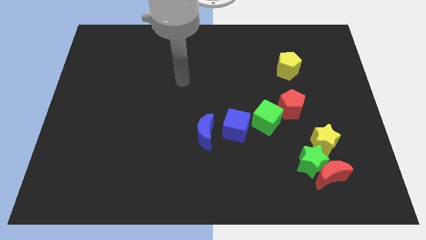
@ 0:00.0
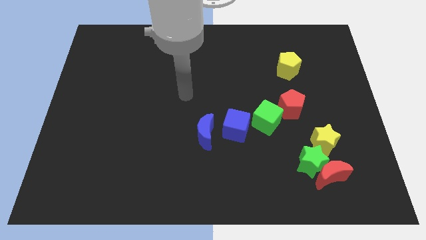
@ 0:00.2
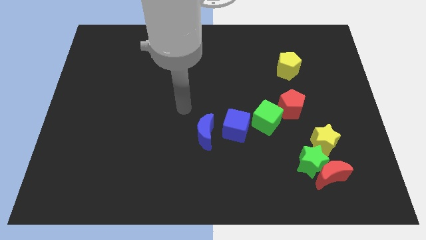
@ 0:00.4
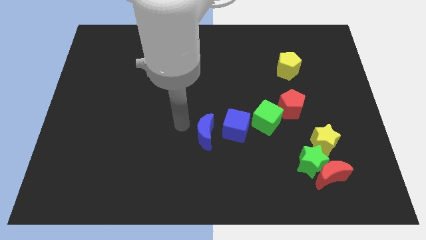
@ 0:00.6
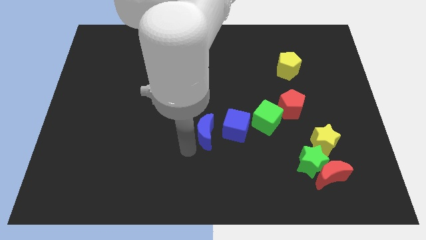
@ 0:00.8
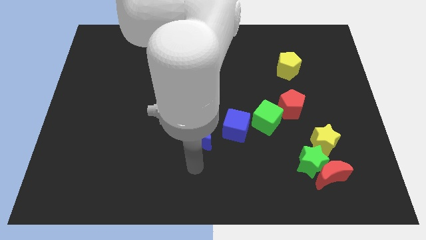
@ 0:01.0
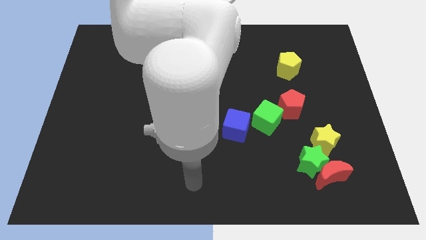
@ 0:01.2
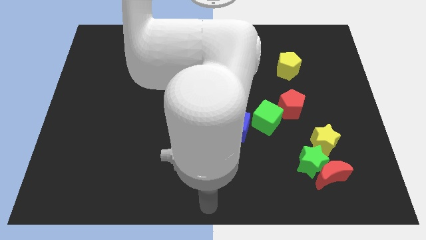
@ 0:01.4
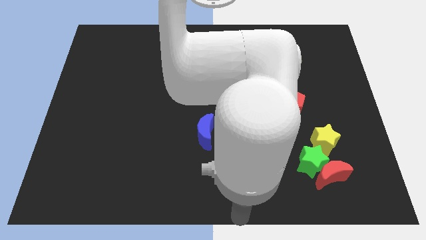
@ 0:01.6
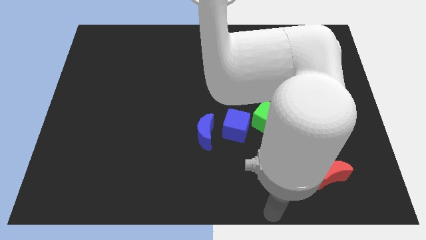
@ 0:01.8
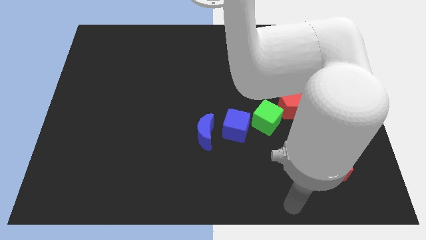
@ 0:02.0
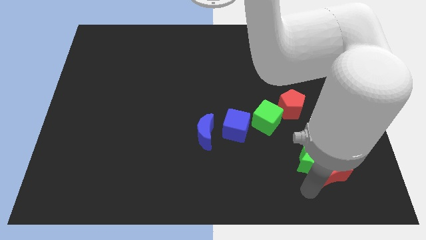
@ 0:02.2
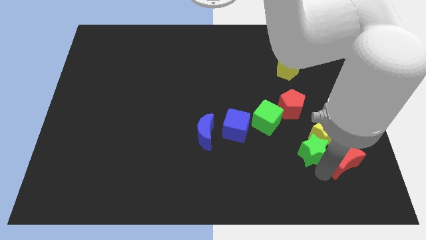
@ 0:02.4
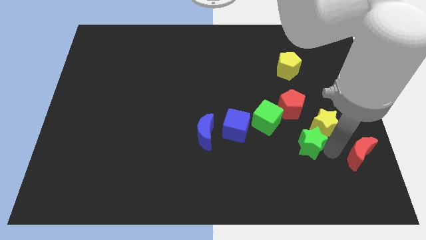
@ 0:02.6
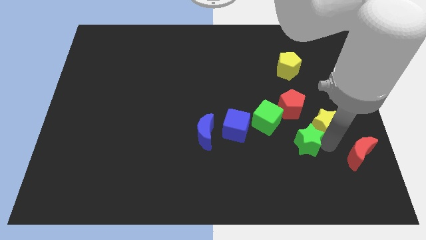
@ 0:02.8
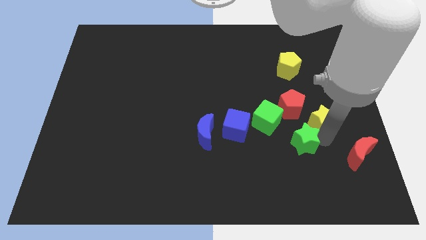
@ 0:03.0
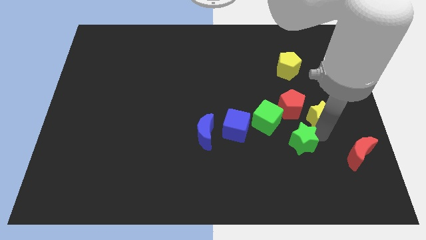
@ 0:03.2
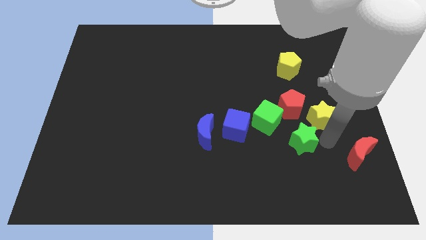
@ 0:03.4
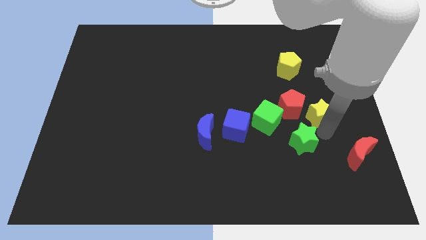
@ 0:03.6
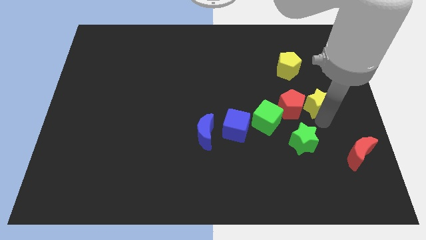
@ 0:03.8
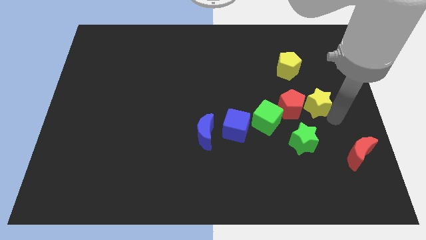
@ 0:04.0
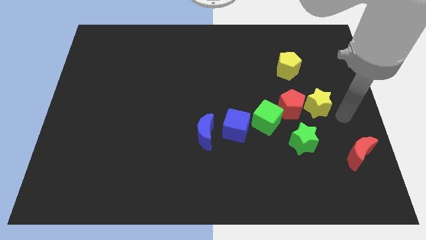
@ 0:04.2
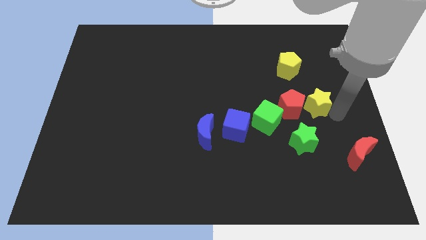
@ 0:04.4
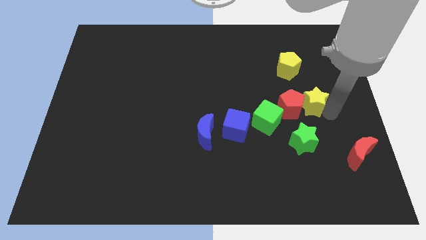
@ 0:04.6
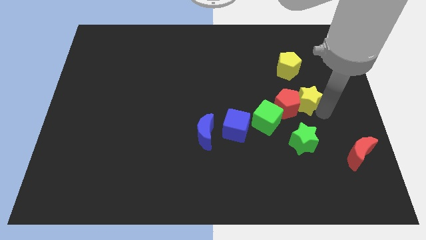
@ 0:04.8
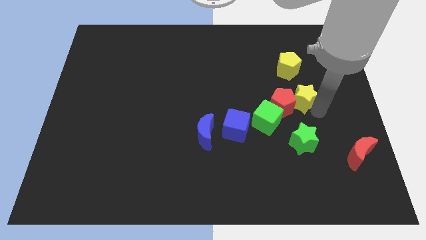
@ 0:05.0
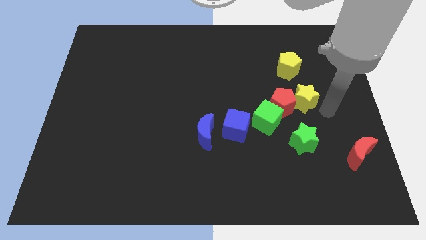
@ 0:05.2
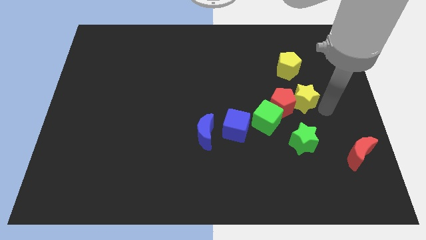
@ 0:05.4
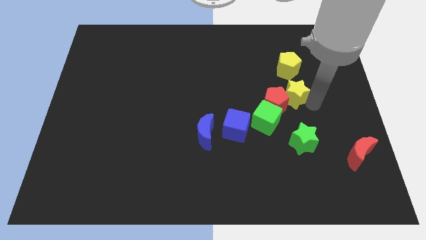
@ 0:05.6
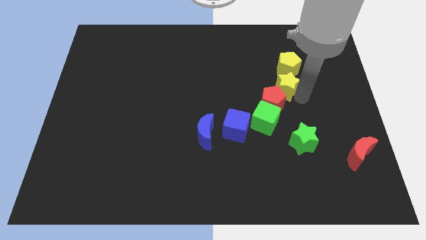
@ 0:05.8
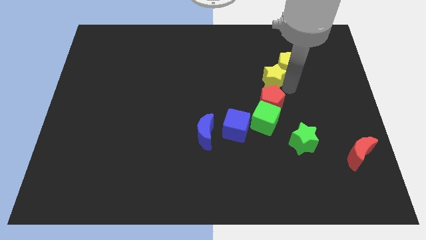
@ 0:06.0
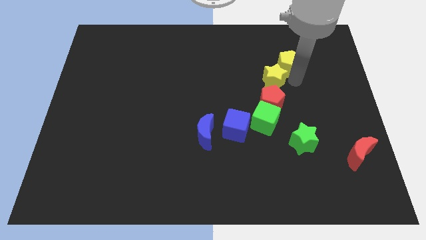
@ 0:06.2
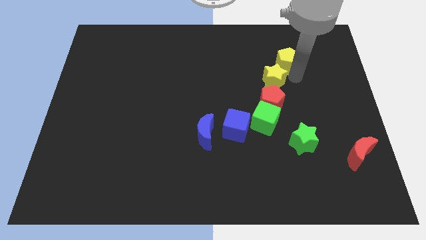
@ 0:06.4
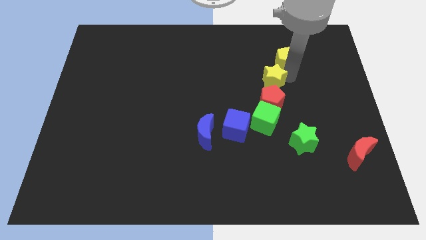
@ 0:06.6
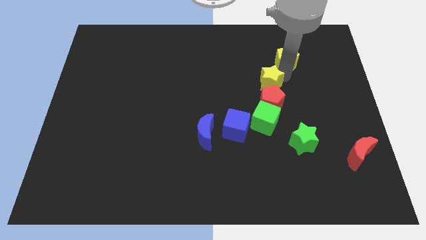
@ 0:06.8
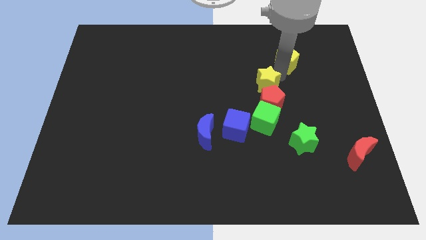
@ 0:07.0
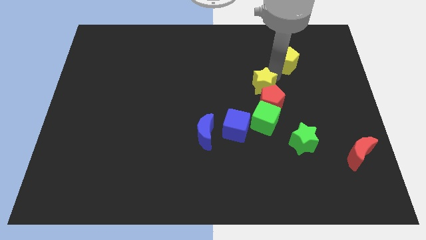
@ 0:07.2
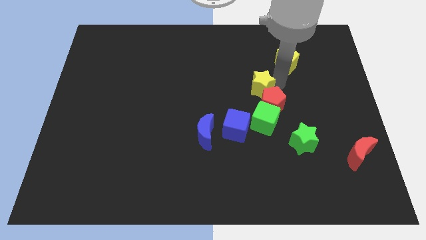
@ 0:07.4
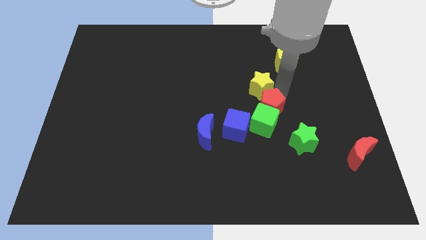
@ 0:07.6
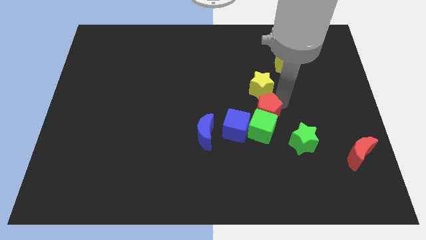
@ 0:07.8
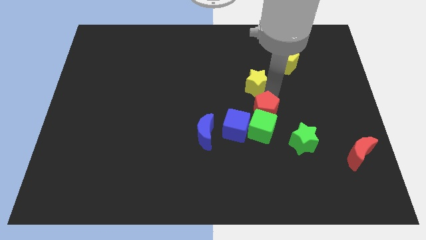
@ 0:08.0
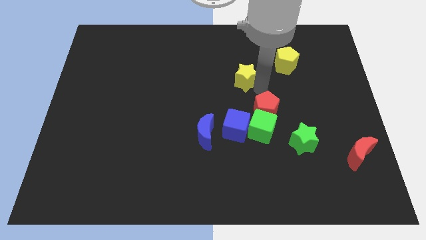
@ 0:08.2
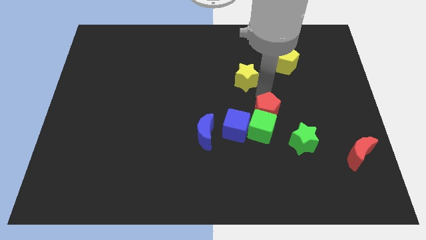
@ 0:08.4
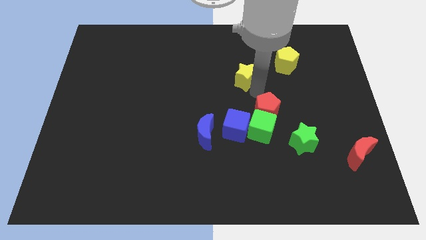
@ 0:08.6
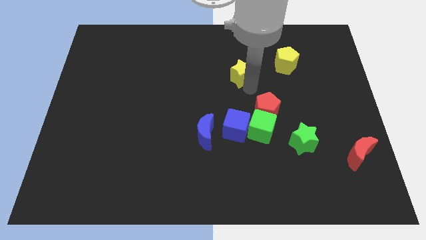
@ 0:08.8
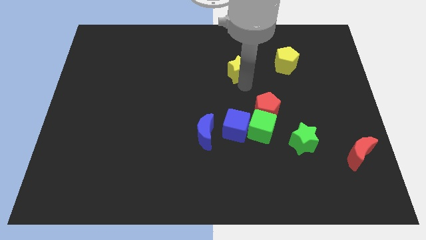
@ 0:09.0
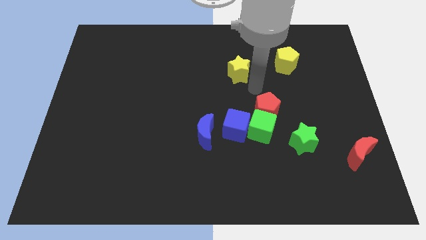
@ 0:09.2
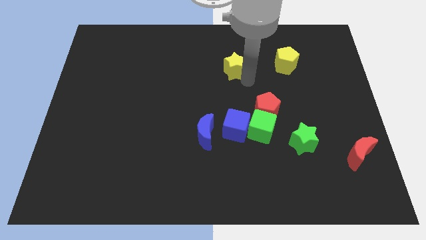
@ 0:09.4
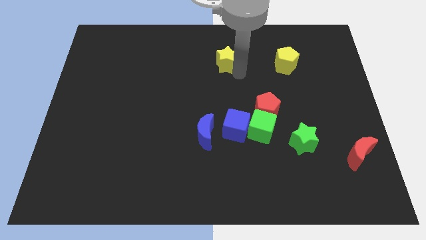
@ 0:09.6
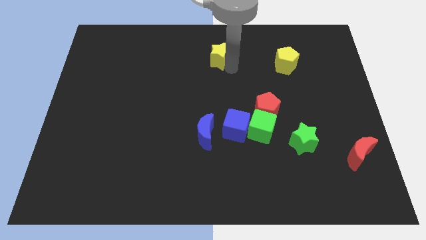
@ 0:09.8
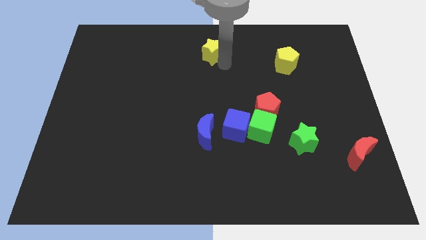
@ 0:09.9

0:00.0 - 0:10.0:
move the yellow star to the top

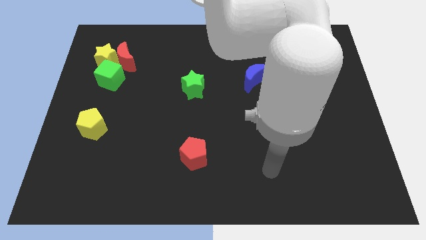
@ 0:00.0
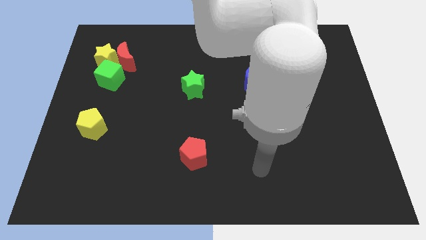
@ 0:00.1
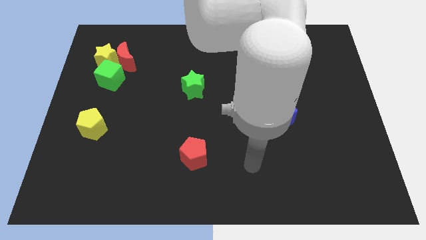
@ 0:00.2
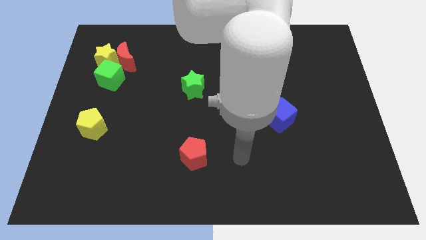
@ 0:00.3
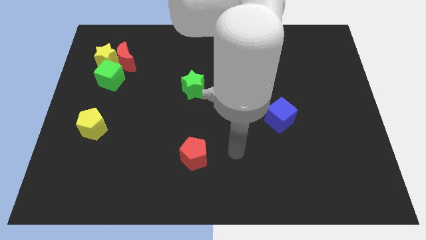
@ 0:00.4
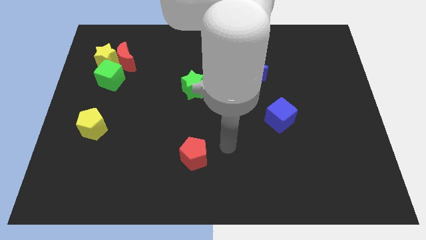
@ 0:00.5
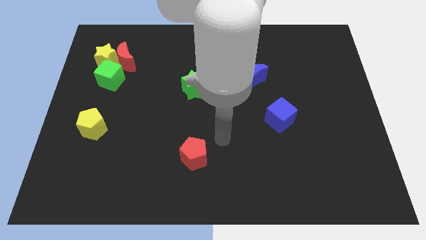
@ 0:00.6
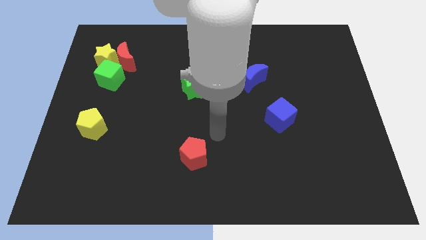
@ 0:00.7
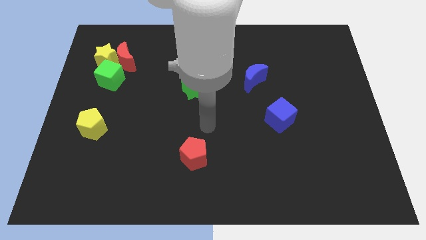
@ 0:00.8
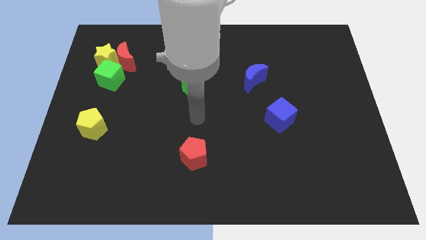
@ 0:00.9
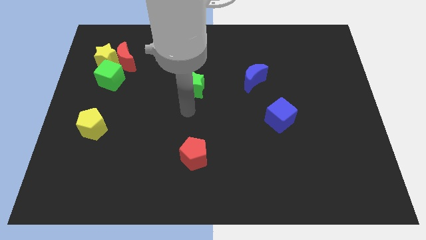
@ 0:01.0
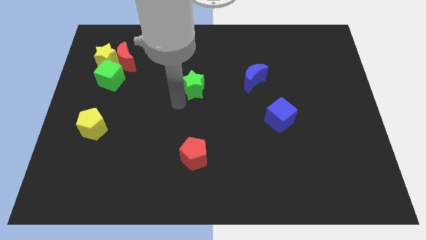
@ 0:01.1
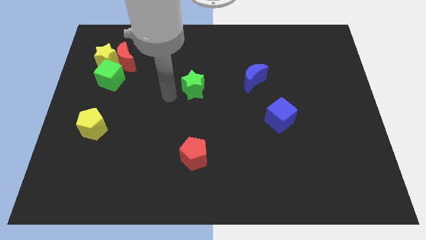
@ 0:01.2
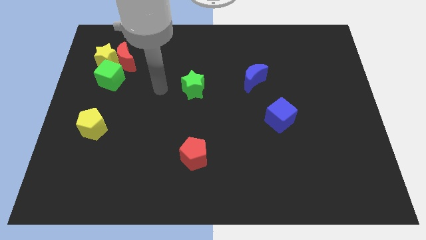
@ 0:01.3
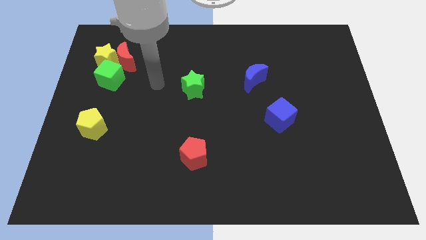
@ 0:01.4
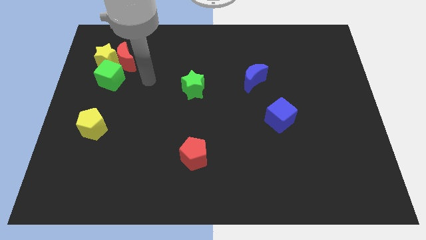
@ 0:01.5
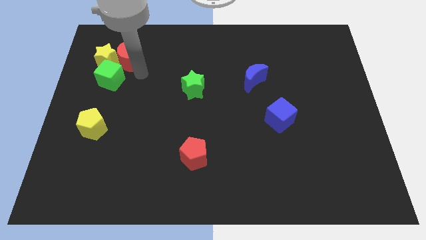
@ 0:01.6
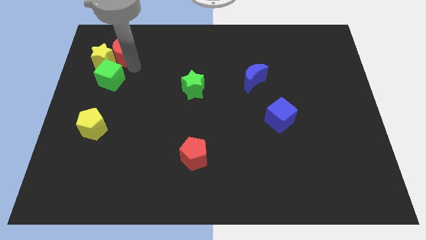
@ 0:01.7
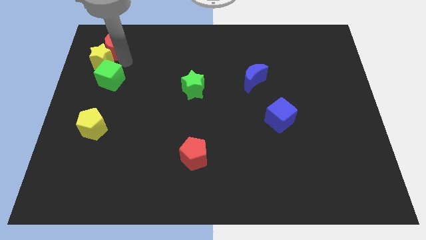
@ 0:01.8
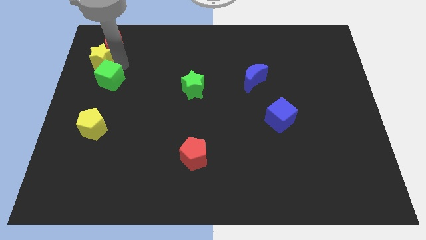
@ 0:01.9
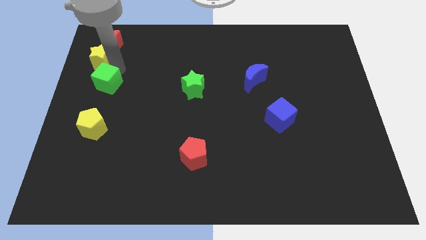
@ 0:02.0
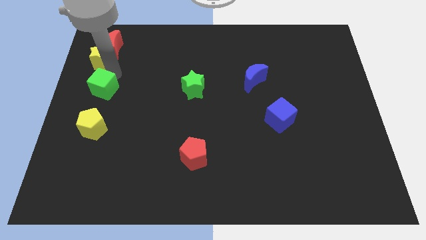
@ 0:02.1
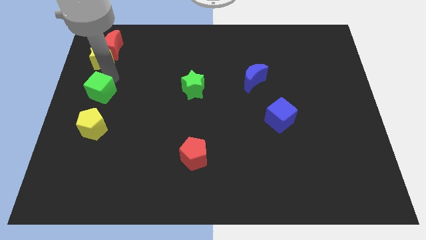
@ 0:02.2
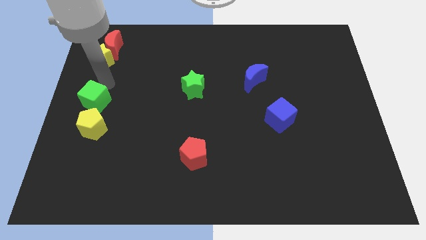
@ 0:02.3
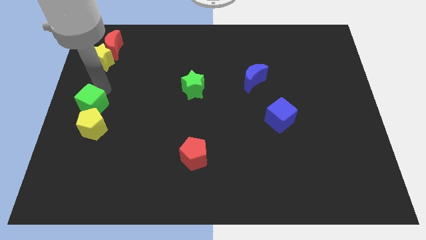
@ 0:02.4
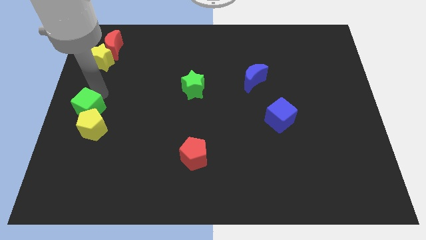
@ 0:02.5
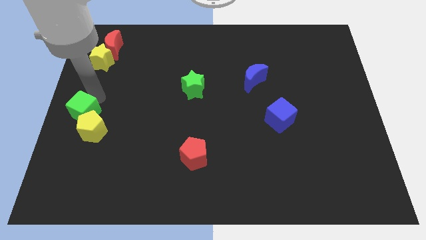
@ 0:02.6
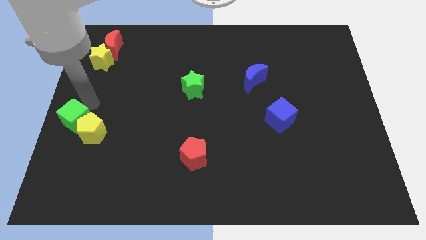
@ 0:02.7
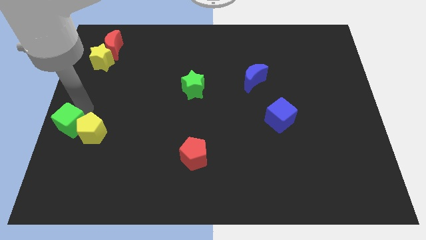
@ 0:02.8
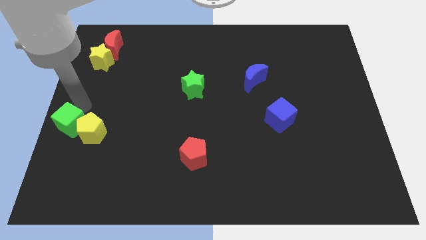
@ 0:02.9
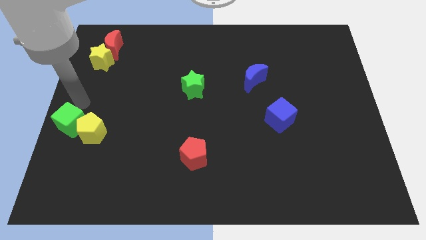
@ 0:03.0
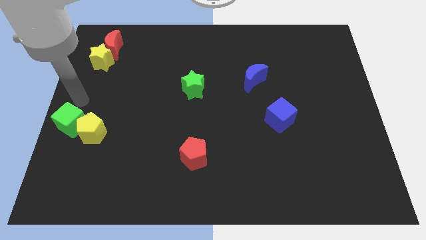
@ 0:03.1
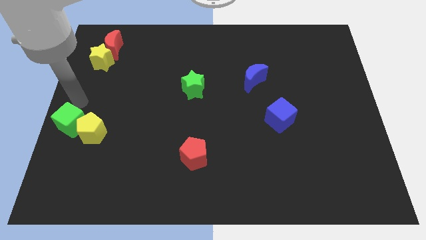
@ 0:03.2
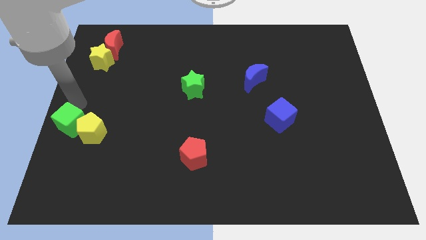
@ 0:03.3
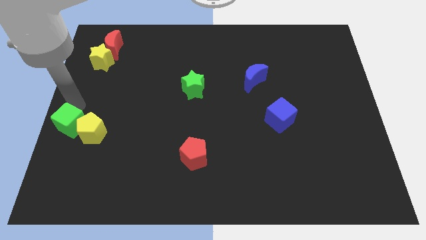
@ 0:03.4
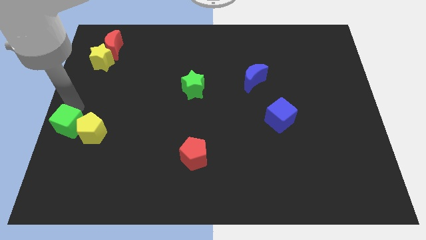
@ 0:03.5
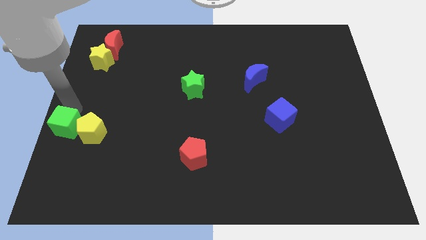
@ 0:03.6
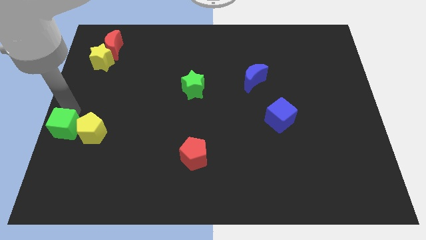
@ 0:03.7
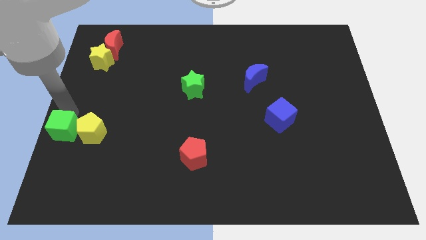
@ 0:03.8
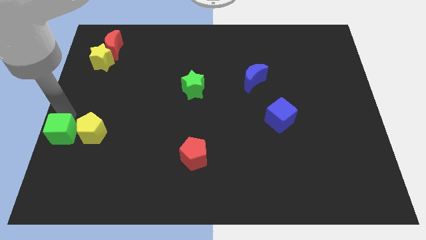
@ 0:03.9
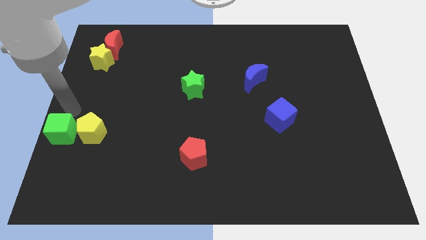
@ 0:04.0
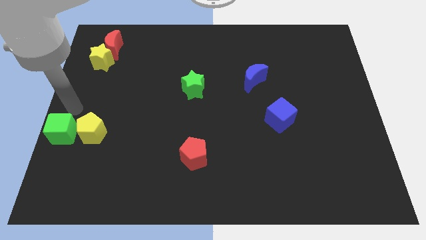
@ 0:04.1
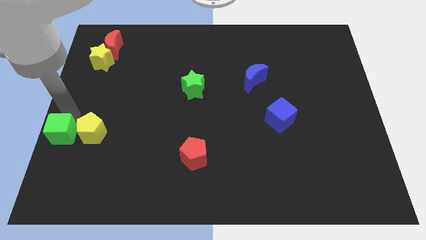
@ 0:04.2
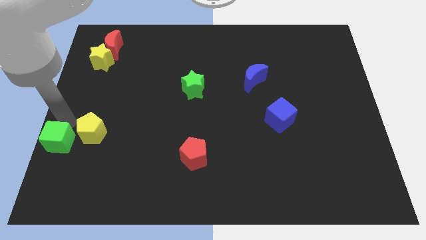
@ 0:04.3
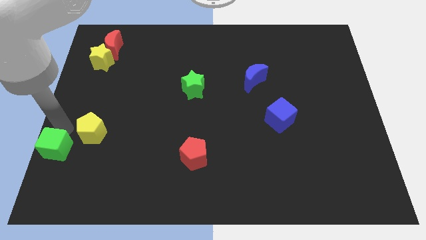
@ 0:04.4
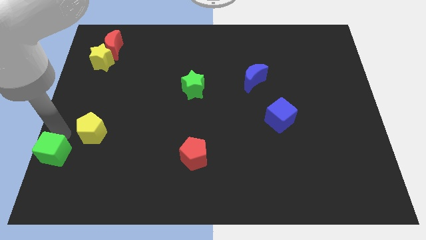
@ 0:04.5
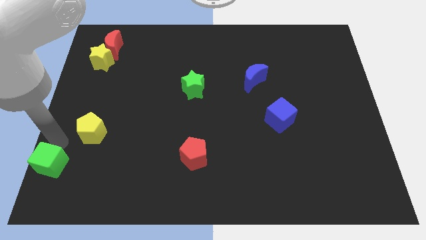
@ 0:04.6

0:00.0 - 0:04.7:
slide the green cube to the bottom left of the board
